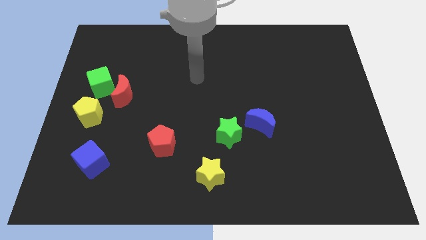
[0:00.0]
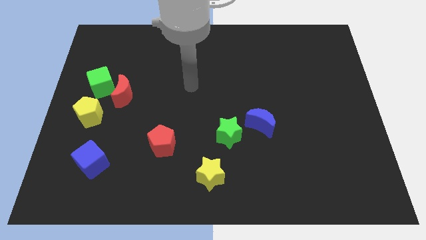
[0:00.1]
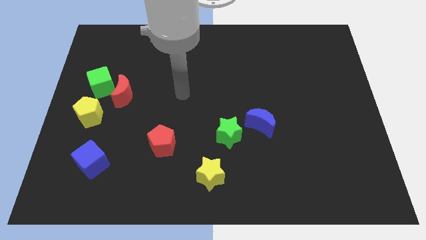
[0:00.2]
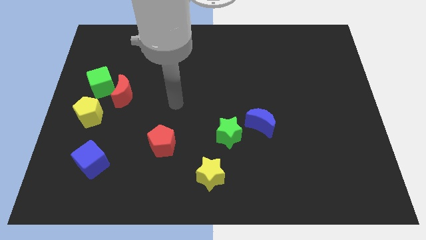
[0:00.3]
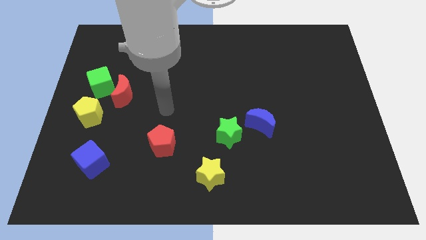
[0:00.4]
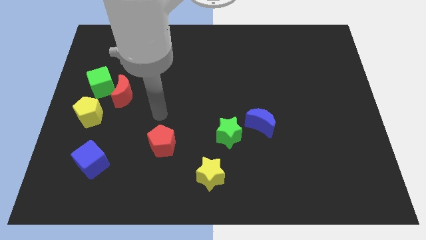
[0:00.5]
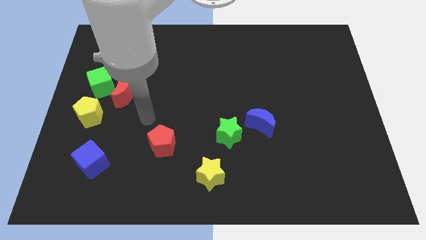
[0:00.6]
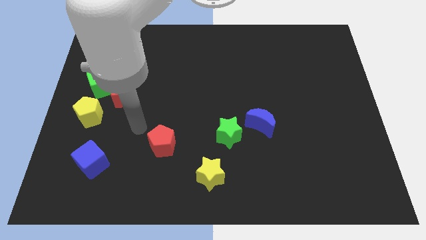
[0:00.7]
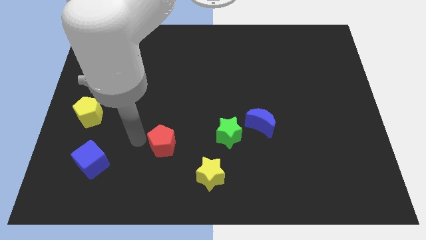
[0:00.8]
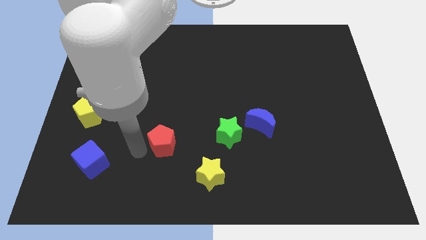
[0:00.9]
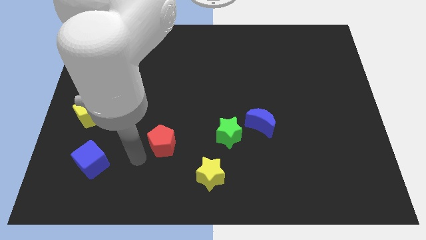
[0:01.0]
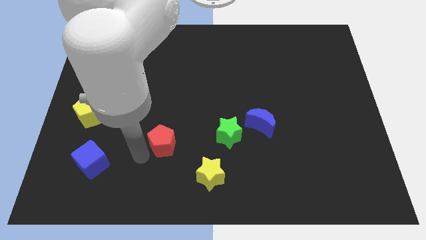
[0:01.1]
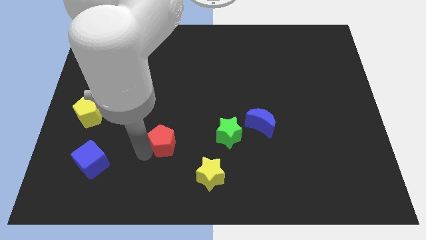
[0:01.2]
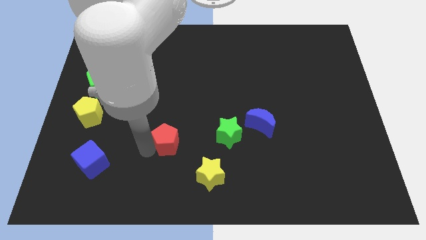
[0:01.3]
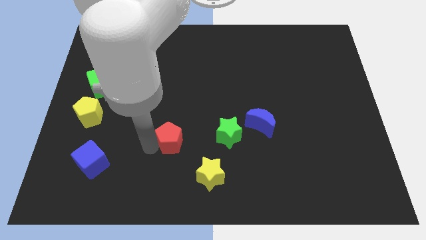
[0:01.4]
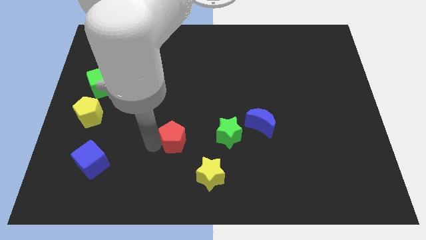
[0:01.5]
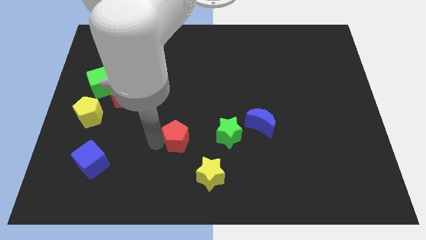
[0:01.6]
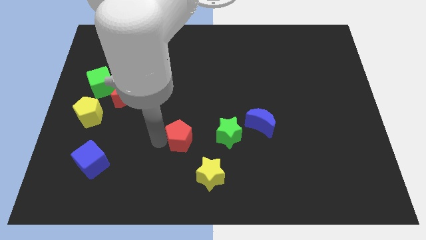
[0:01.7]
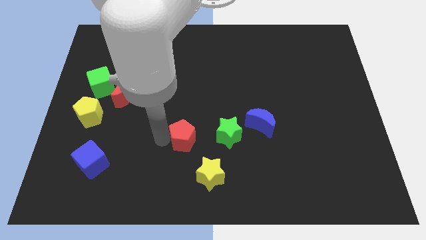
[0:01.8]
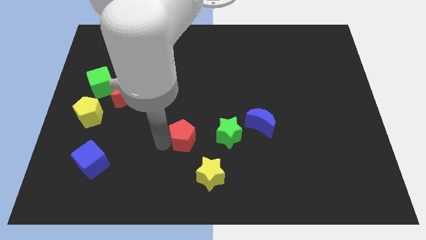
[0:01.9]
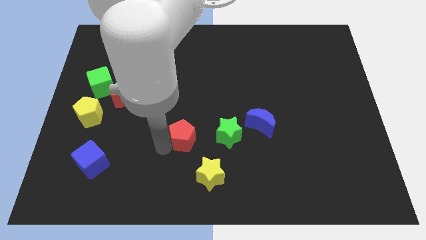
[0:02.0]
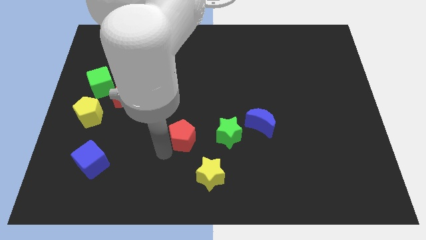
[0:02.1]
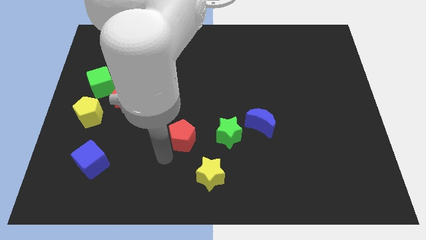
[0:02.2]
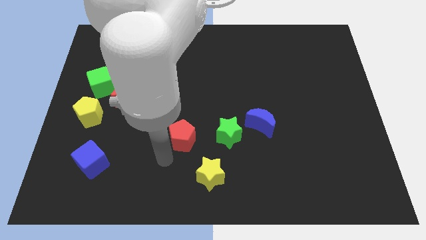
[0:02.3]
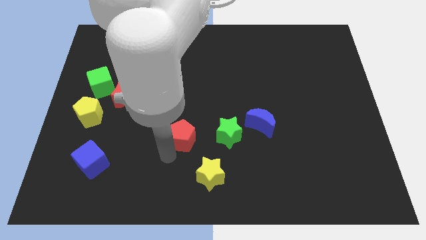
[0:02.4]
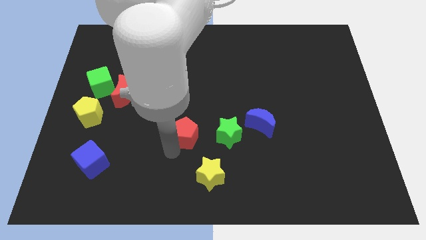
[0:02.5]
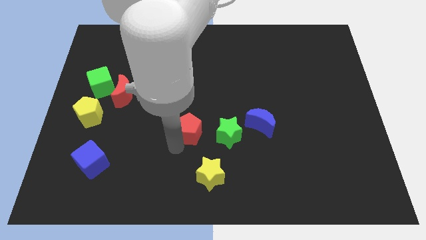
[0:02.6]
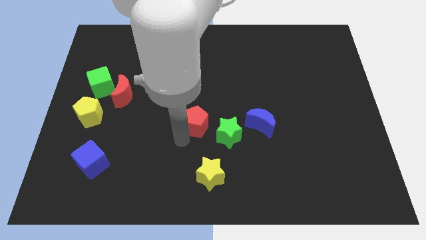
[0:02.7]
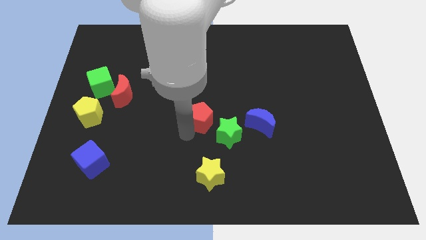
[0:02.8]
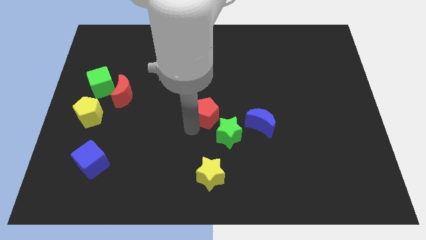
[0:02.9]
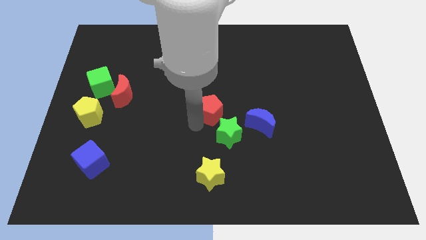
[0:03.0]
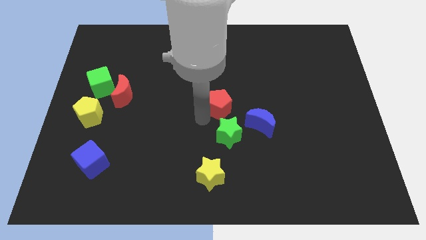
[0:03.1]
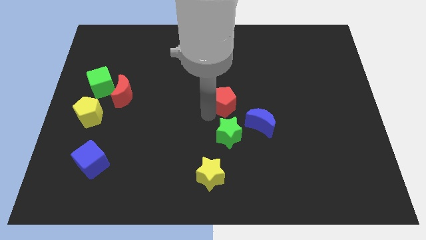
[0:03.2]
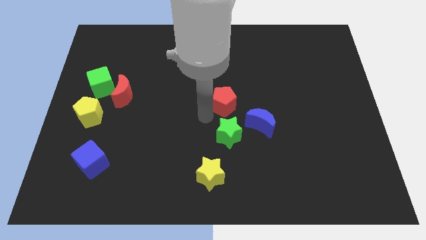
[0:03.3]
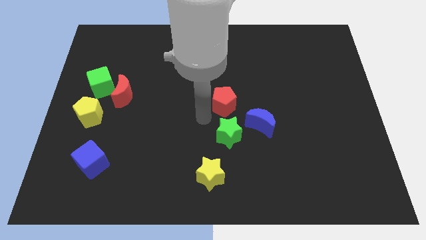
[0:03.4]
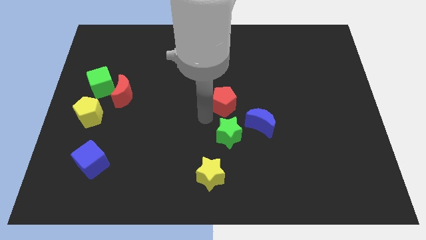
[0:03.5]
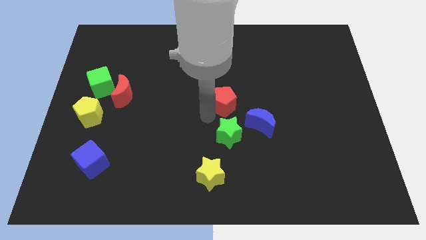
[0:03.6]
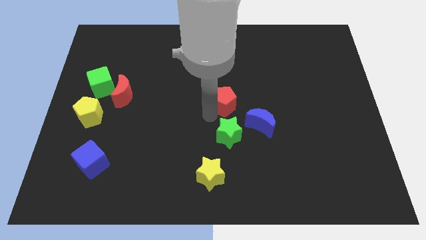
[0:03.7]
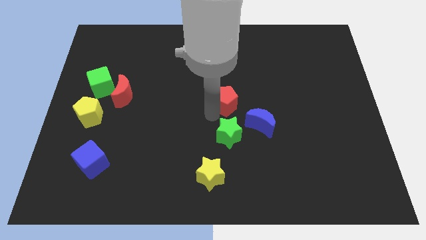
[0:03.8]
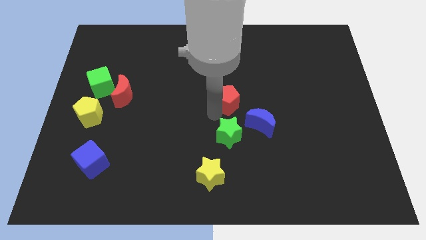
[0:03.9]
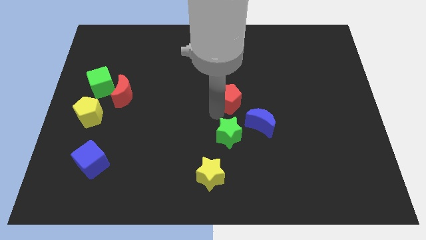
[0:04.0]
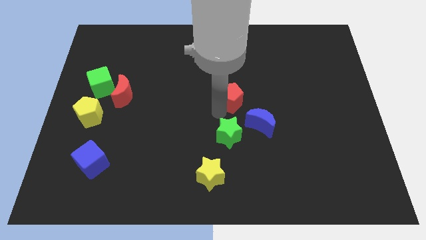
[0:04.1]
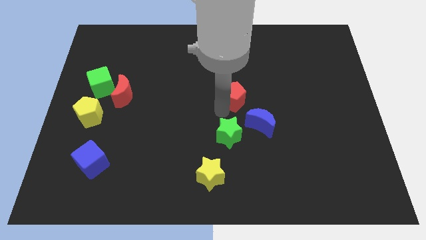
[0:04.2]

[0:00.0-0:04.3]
slide the red pentagon diagonally up and to the right

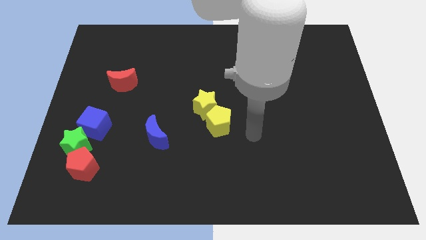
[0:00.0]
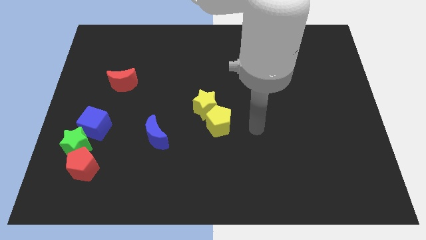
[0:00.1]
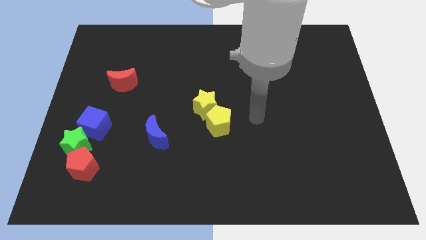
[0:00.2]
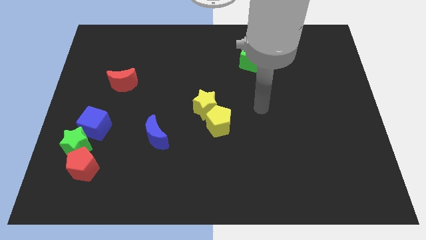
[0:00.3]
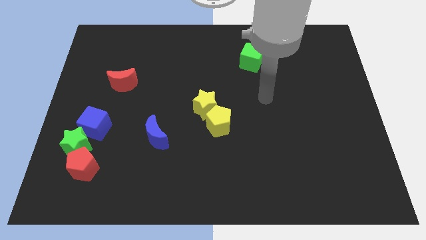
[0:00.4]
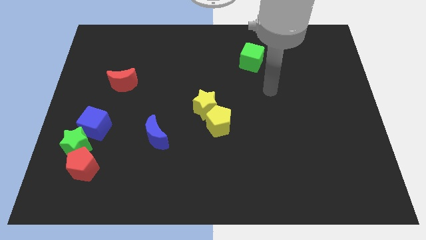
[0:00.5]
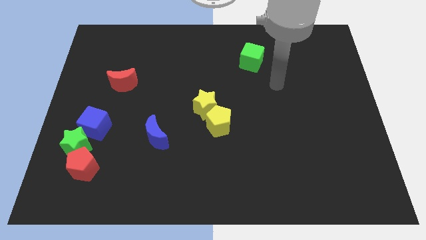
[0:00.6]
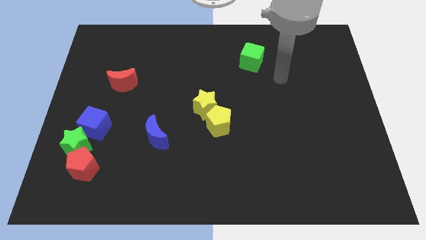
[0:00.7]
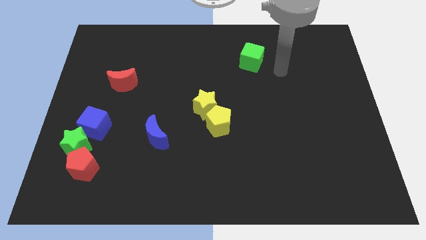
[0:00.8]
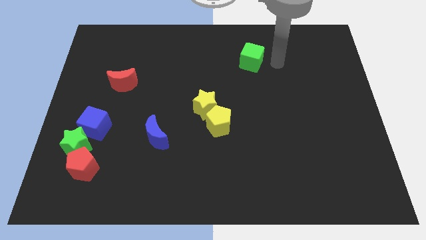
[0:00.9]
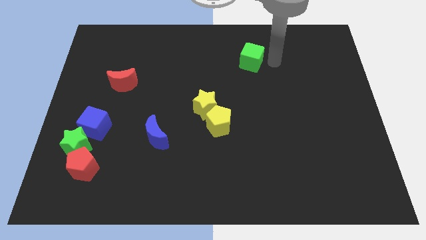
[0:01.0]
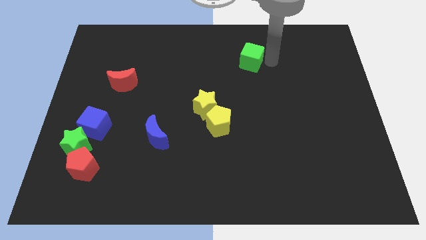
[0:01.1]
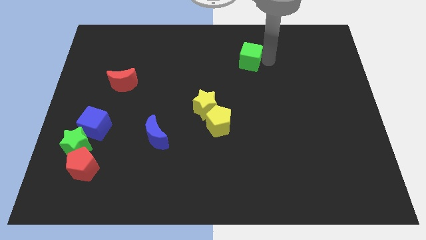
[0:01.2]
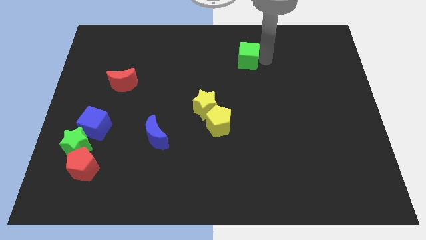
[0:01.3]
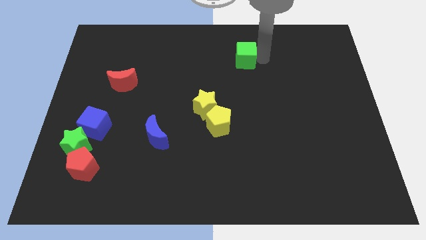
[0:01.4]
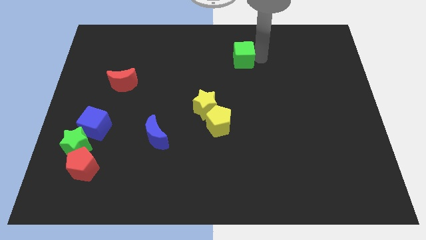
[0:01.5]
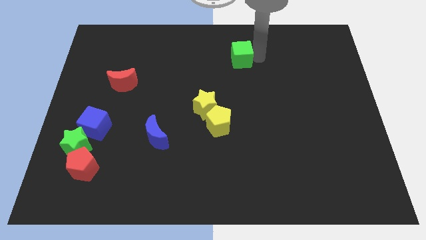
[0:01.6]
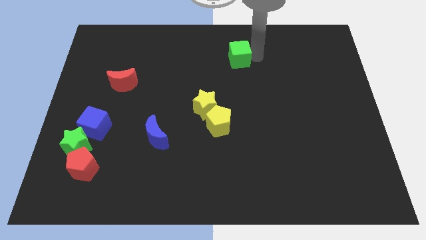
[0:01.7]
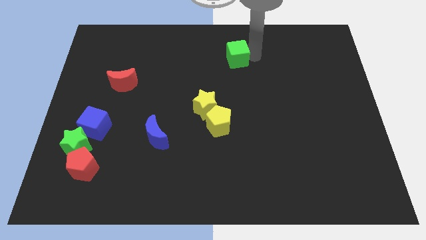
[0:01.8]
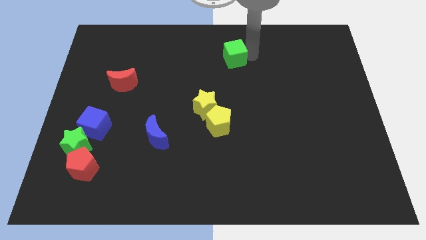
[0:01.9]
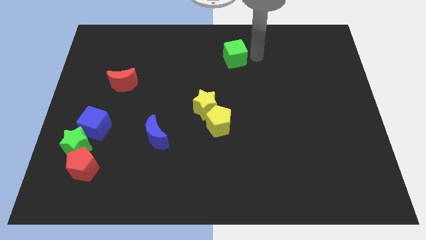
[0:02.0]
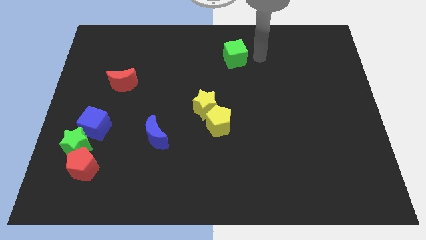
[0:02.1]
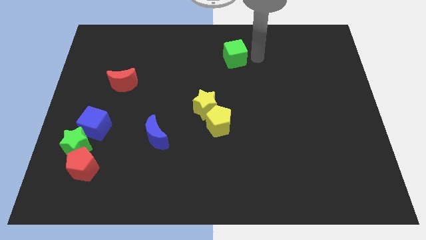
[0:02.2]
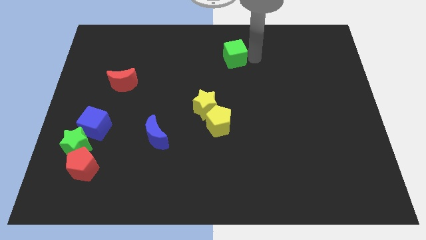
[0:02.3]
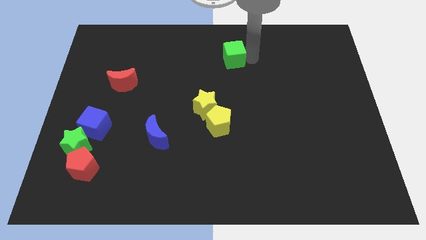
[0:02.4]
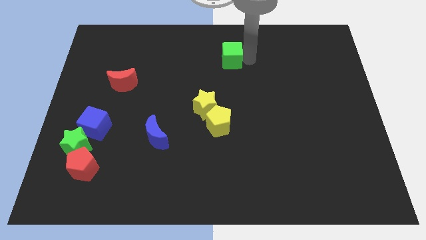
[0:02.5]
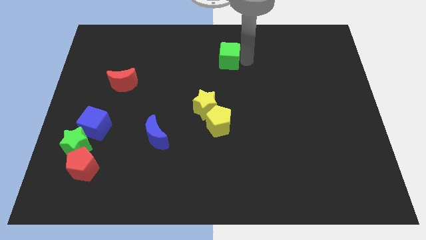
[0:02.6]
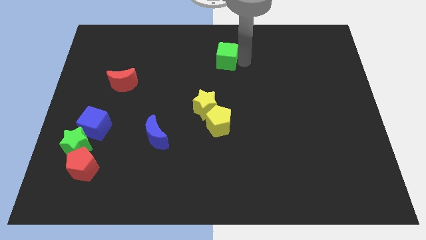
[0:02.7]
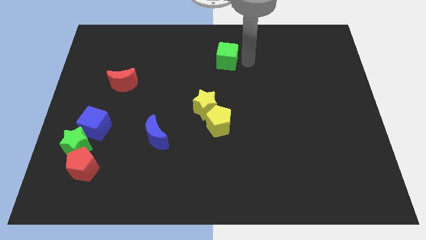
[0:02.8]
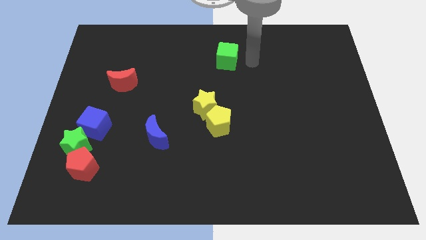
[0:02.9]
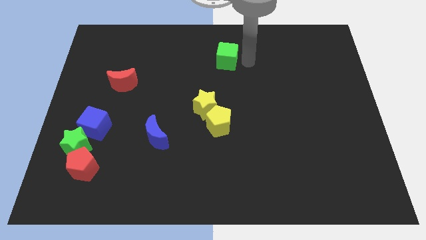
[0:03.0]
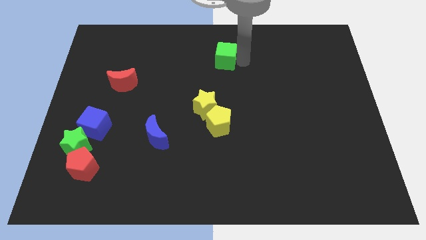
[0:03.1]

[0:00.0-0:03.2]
slide the green cube to the left a little bit

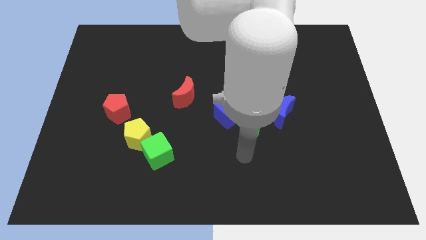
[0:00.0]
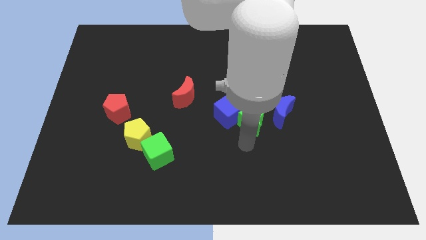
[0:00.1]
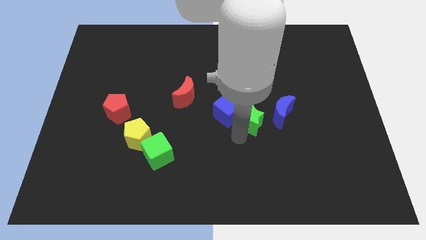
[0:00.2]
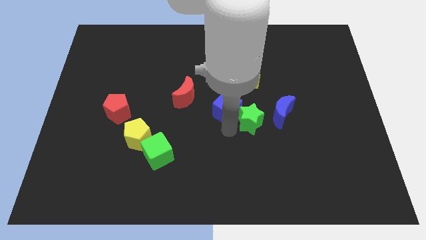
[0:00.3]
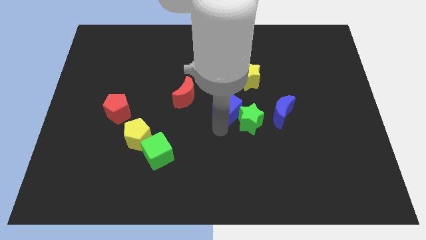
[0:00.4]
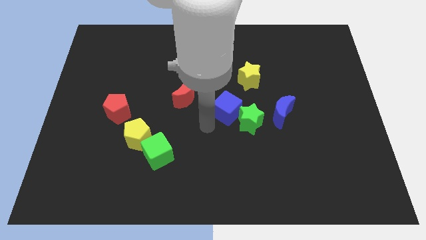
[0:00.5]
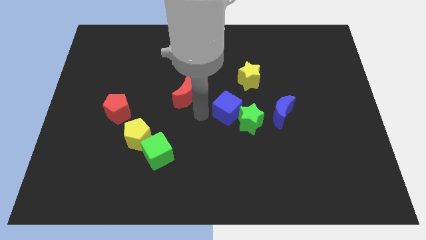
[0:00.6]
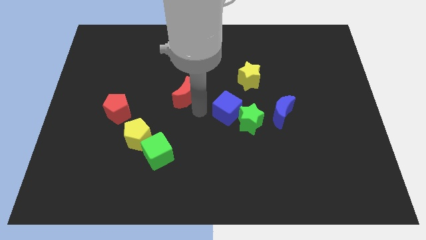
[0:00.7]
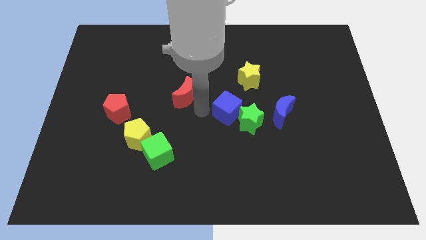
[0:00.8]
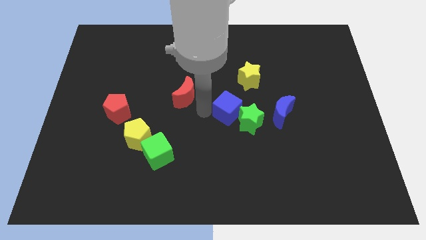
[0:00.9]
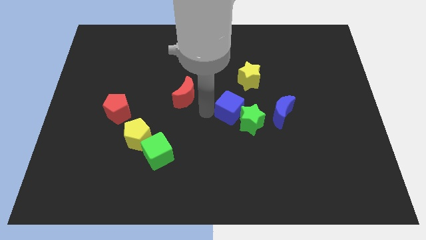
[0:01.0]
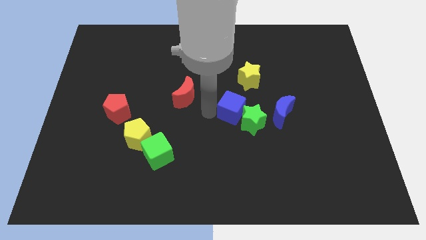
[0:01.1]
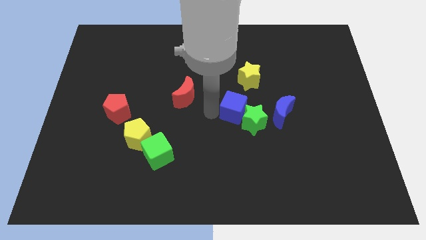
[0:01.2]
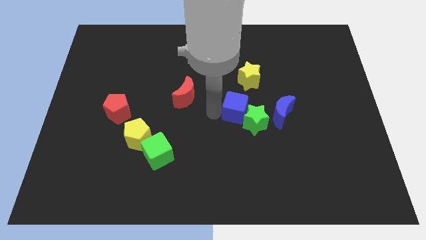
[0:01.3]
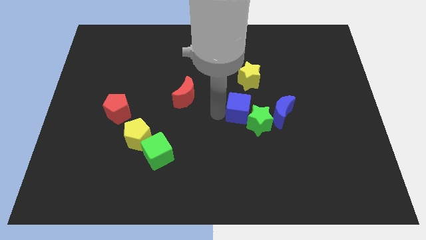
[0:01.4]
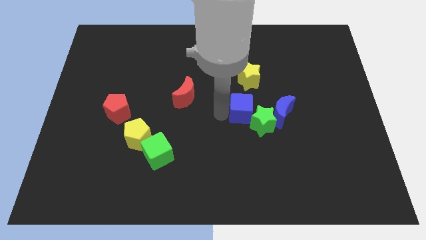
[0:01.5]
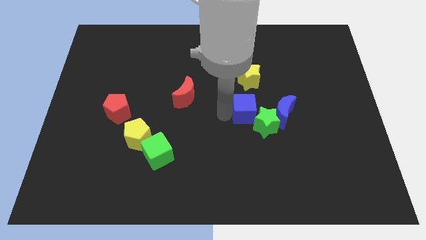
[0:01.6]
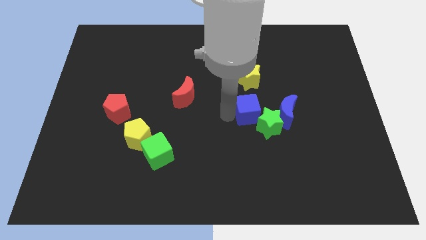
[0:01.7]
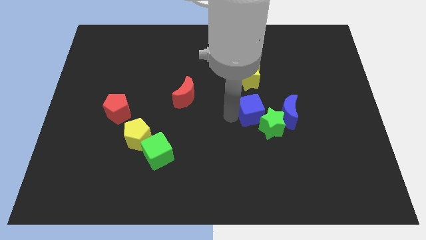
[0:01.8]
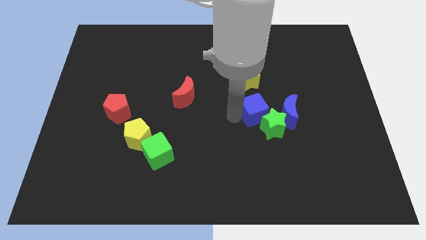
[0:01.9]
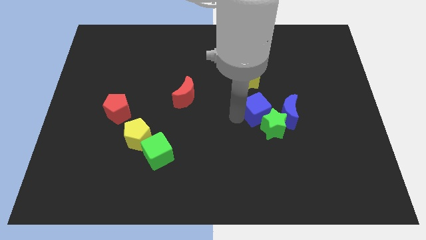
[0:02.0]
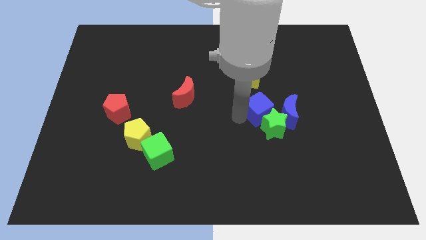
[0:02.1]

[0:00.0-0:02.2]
slightly push the blue cube right
